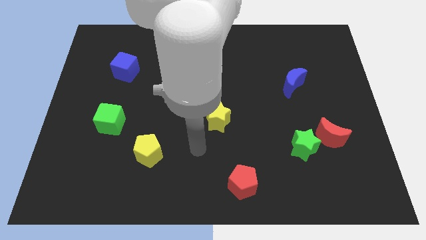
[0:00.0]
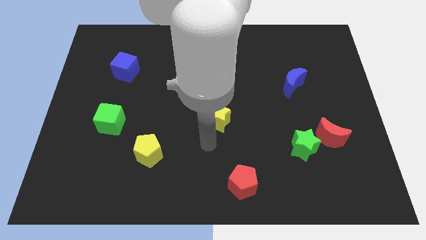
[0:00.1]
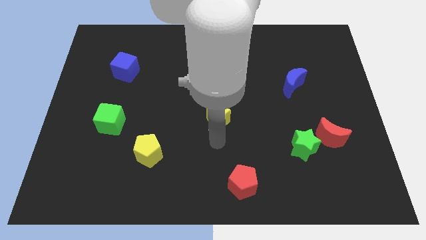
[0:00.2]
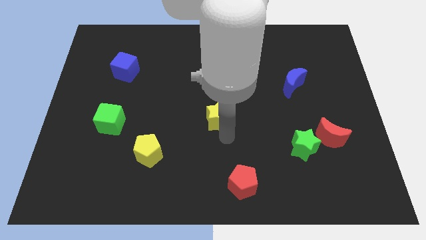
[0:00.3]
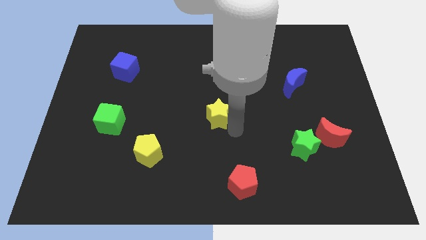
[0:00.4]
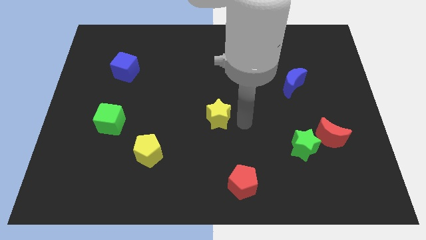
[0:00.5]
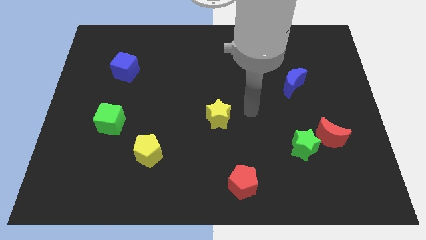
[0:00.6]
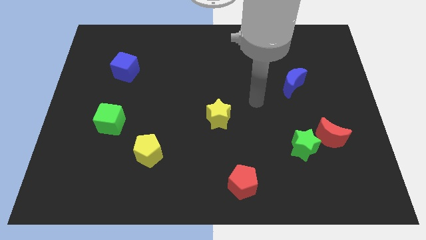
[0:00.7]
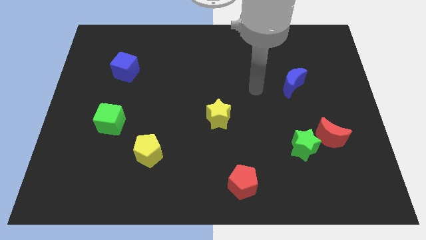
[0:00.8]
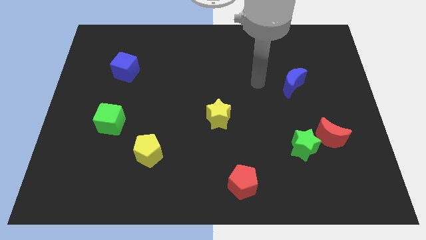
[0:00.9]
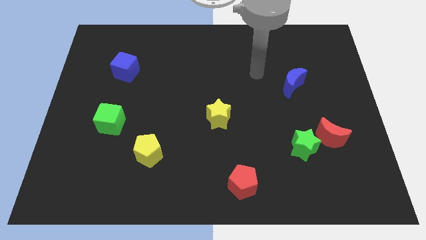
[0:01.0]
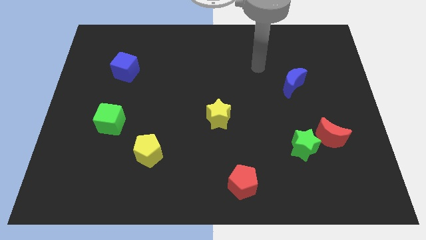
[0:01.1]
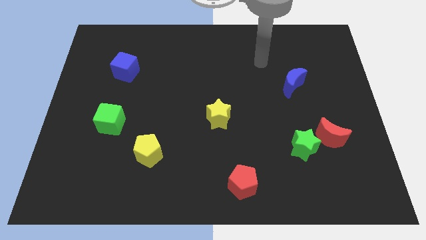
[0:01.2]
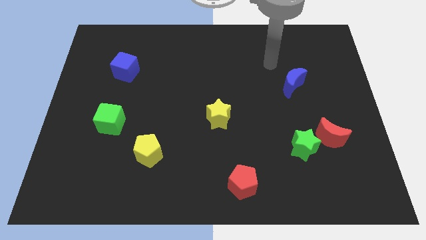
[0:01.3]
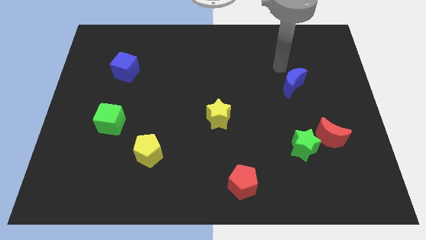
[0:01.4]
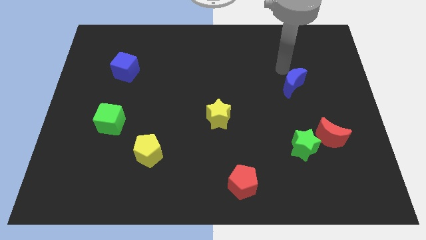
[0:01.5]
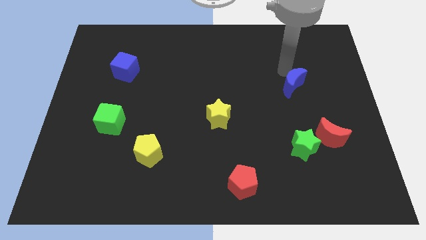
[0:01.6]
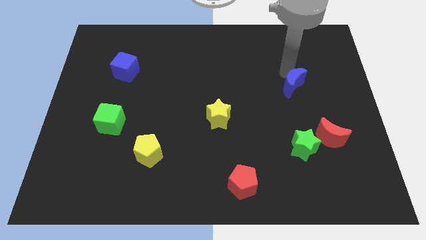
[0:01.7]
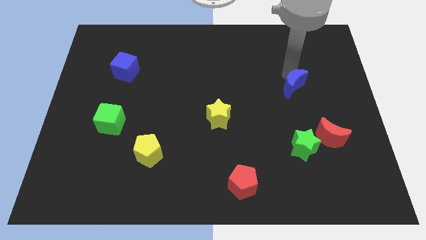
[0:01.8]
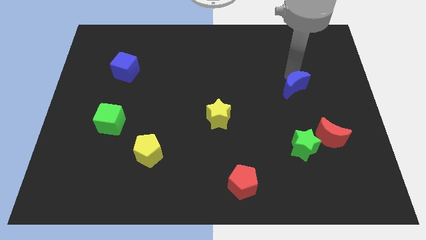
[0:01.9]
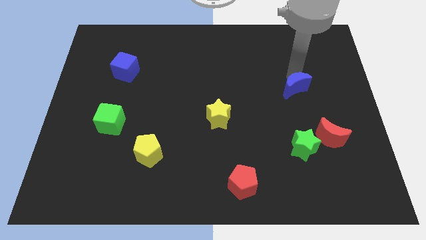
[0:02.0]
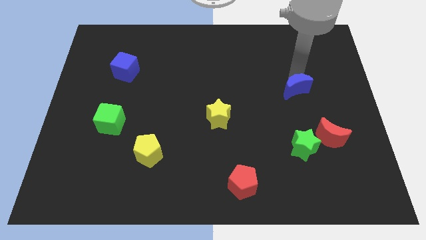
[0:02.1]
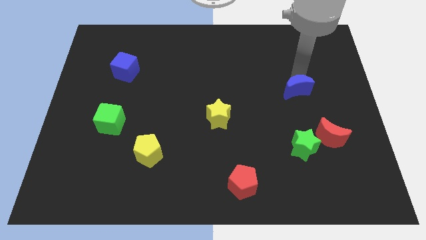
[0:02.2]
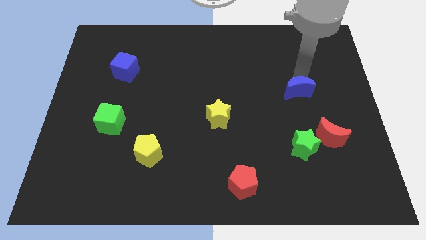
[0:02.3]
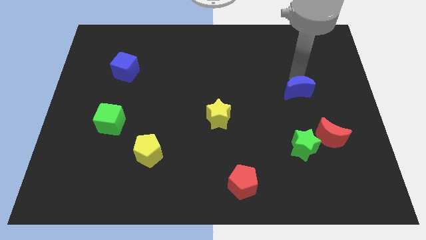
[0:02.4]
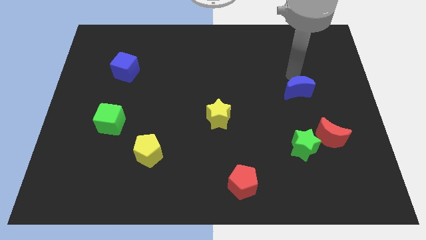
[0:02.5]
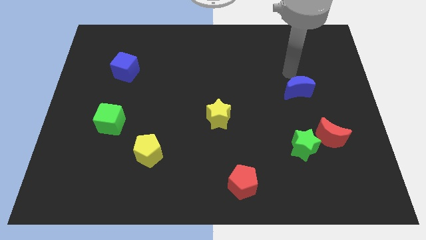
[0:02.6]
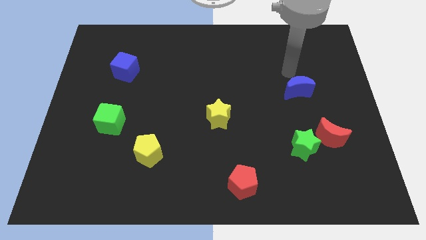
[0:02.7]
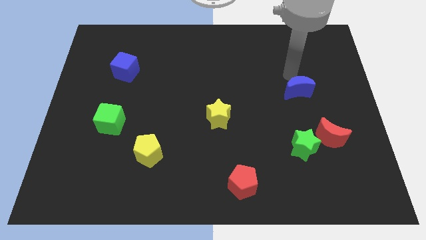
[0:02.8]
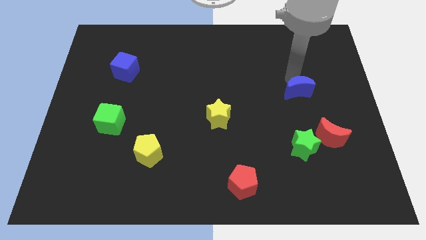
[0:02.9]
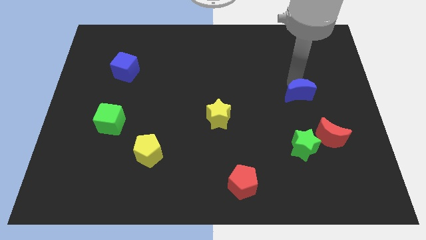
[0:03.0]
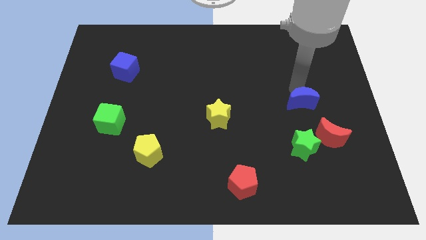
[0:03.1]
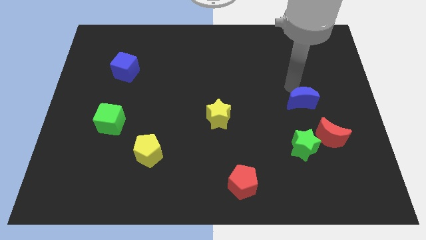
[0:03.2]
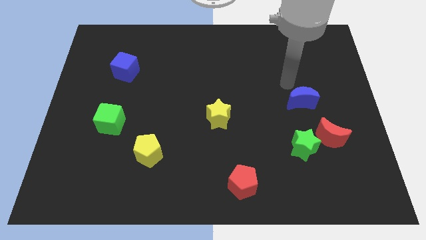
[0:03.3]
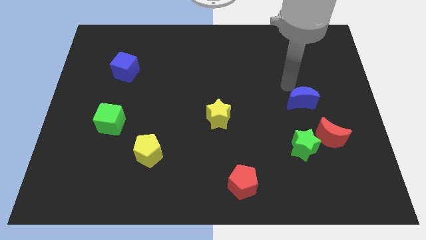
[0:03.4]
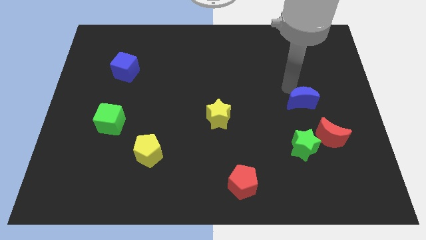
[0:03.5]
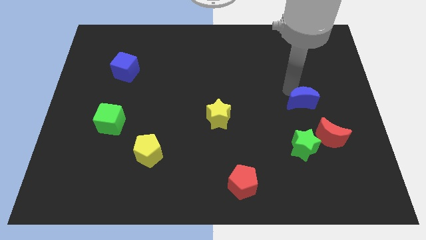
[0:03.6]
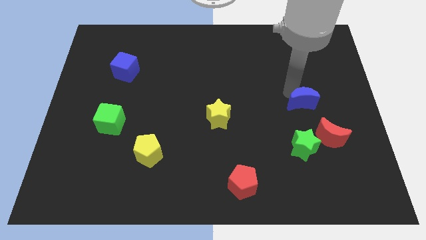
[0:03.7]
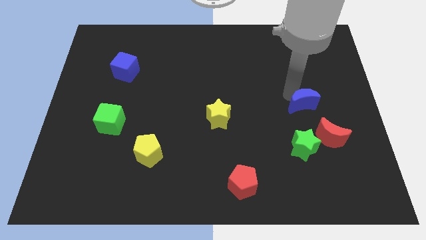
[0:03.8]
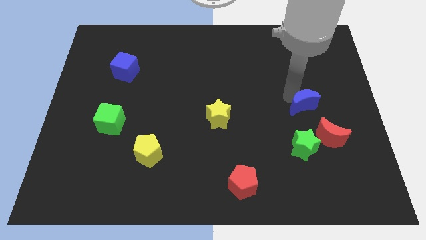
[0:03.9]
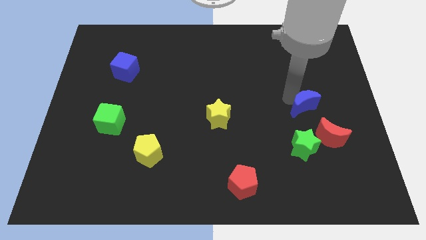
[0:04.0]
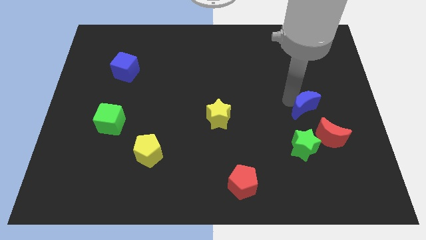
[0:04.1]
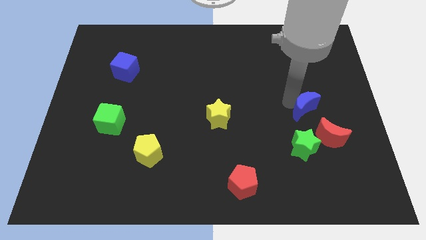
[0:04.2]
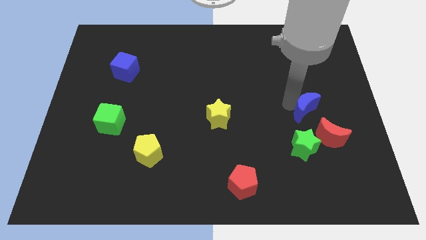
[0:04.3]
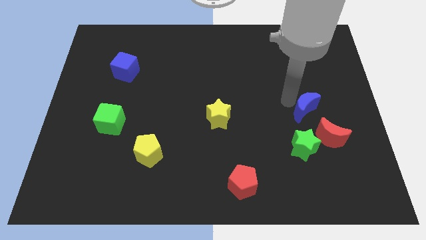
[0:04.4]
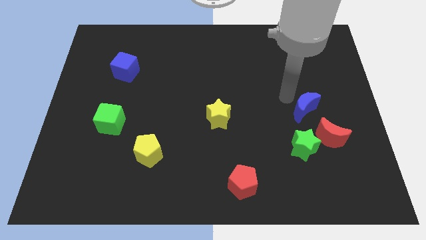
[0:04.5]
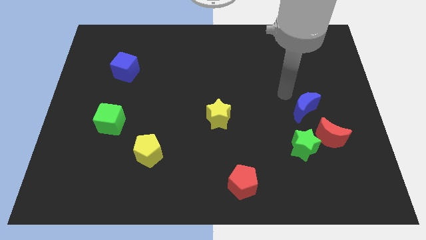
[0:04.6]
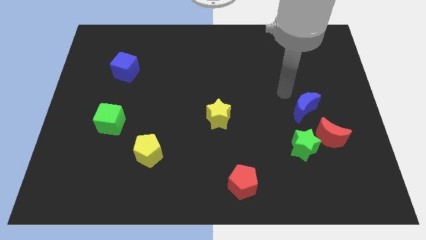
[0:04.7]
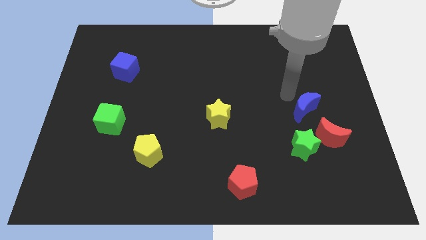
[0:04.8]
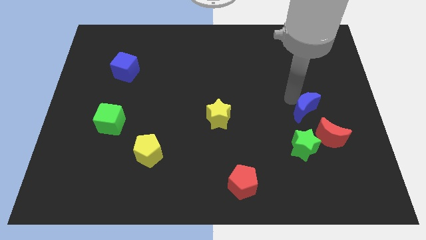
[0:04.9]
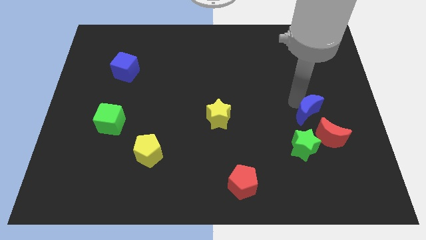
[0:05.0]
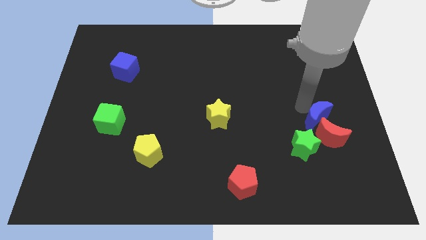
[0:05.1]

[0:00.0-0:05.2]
slide the blue moon towards the red moon

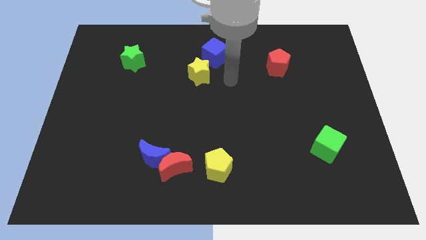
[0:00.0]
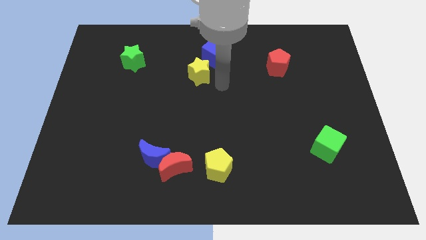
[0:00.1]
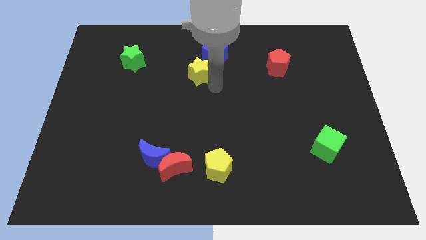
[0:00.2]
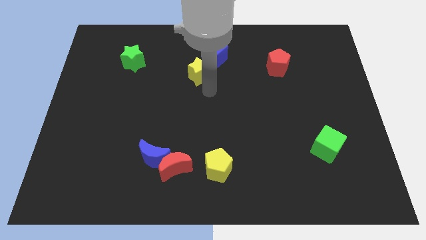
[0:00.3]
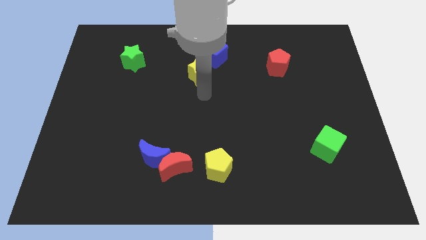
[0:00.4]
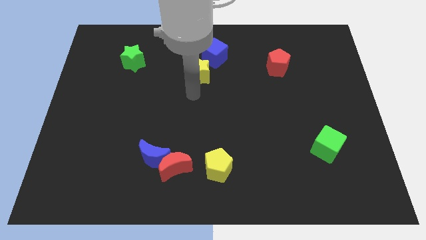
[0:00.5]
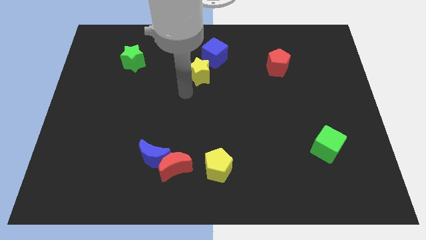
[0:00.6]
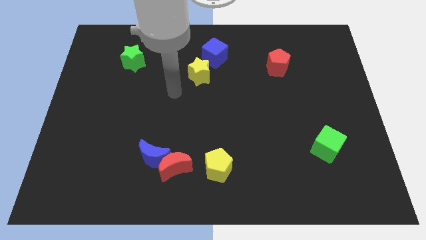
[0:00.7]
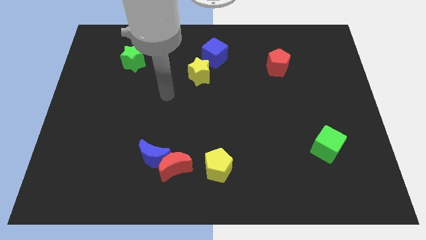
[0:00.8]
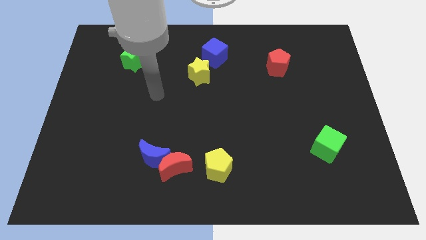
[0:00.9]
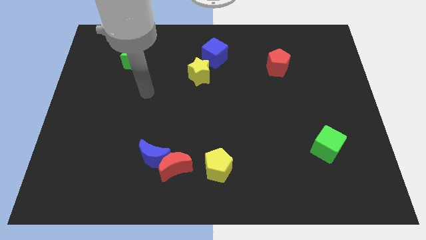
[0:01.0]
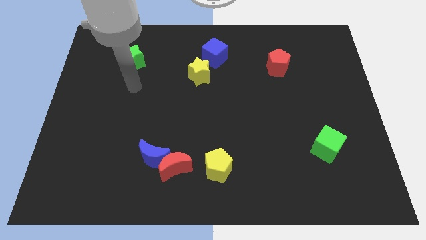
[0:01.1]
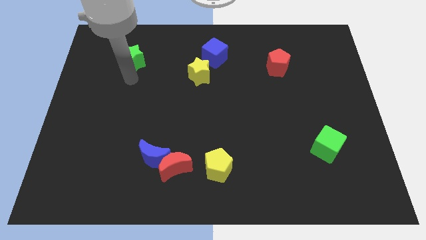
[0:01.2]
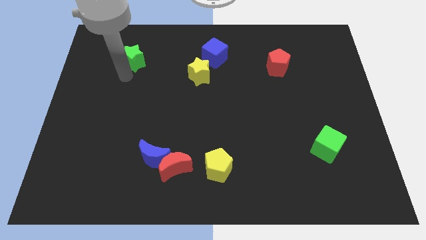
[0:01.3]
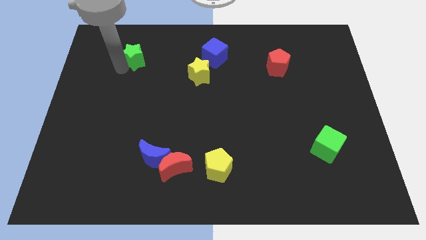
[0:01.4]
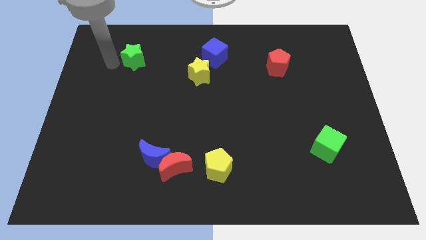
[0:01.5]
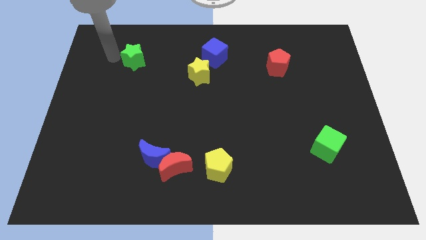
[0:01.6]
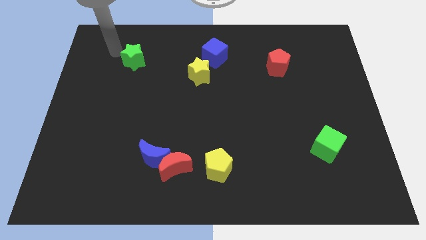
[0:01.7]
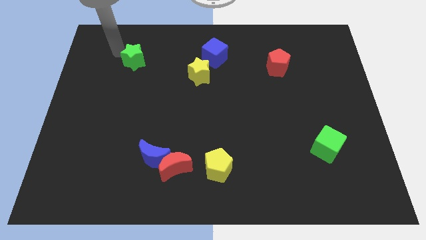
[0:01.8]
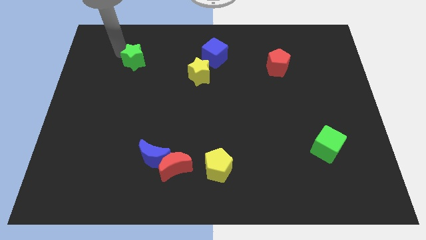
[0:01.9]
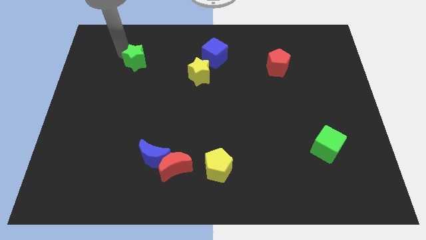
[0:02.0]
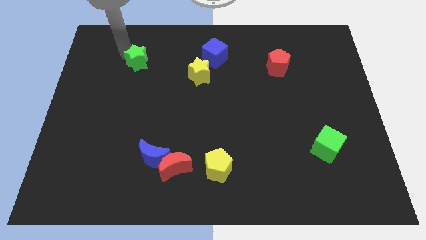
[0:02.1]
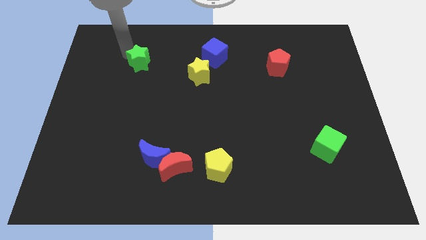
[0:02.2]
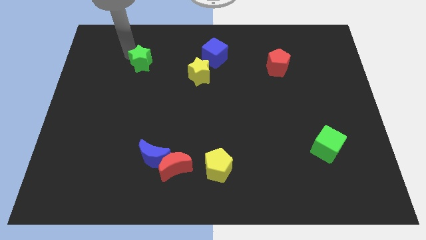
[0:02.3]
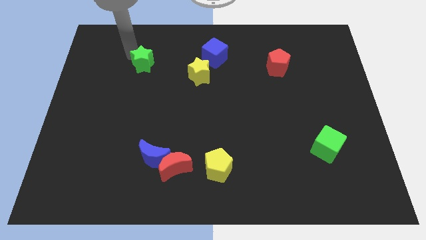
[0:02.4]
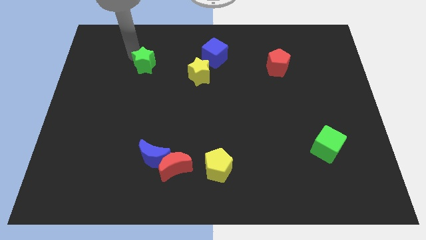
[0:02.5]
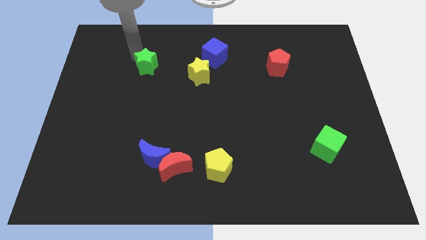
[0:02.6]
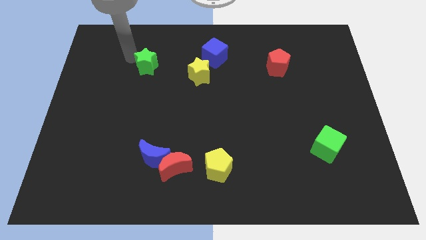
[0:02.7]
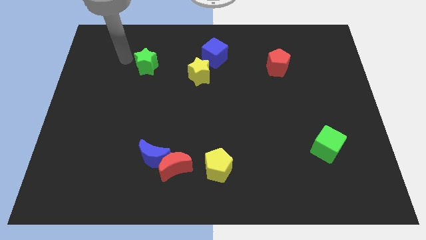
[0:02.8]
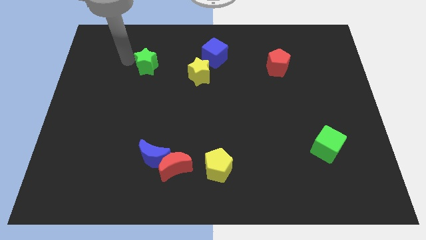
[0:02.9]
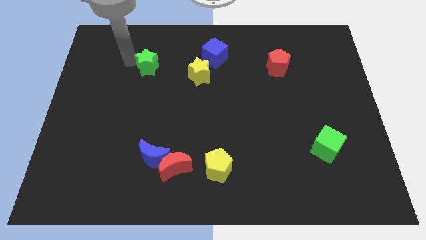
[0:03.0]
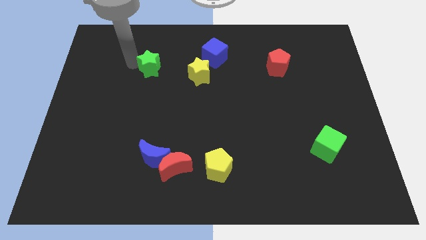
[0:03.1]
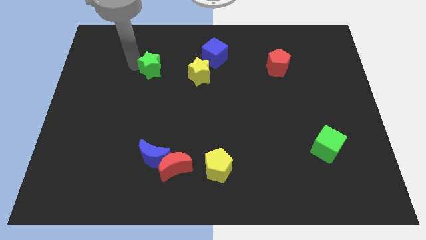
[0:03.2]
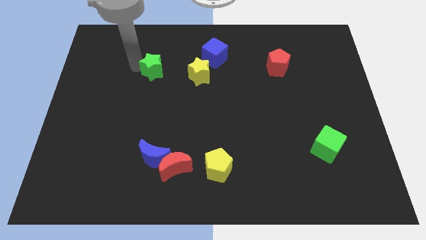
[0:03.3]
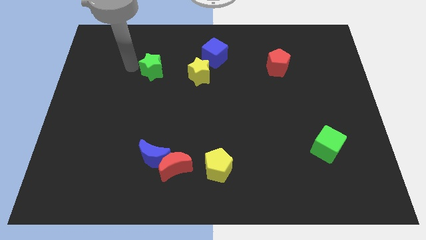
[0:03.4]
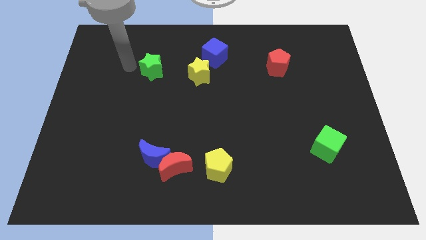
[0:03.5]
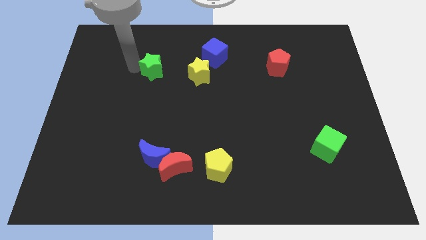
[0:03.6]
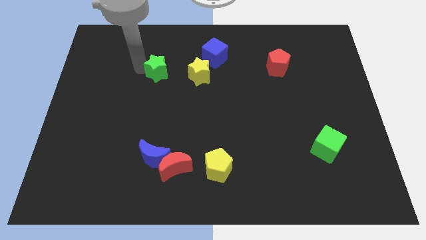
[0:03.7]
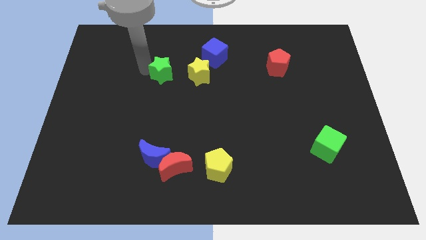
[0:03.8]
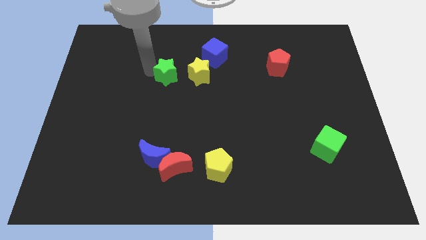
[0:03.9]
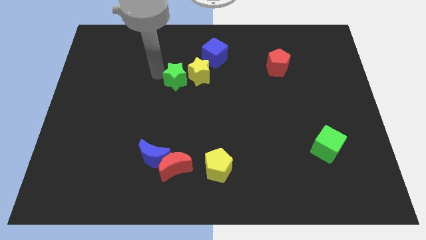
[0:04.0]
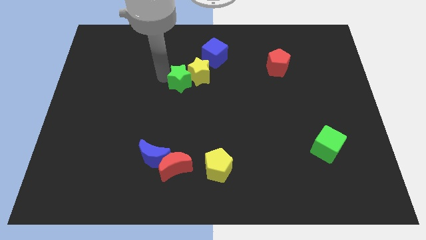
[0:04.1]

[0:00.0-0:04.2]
move the green star to the yellow star
